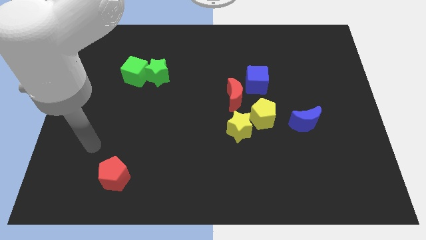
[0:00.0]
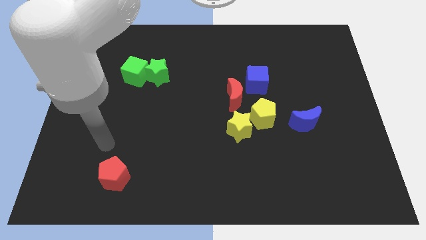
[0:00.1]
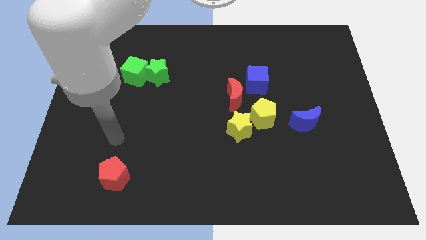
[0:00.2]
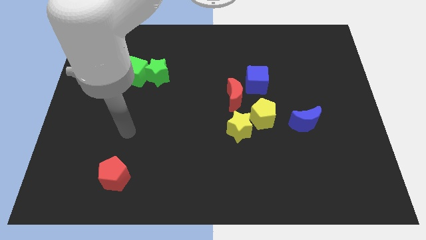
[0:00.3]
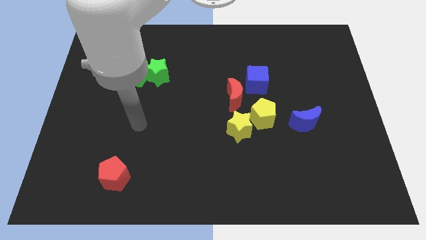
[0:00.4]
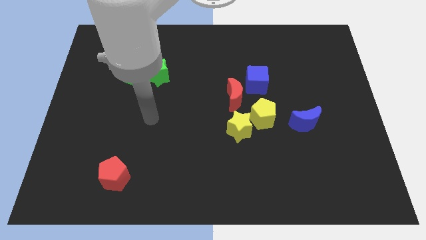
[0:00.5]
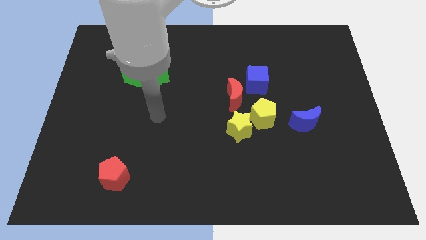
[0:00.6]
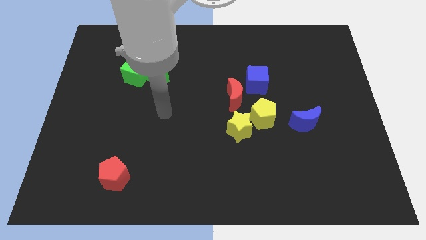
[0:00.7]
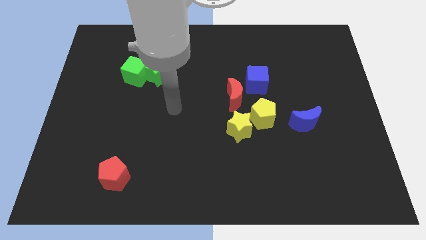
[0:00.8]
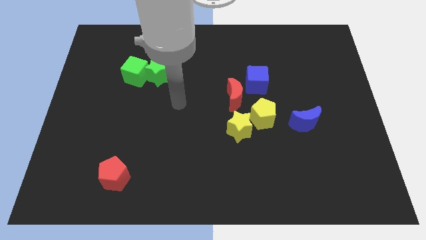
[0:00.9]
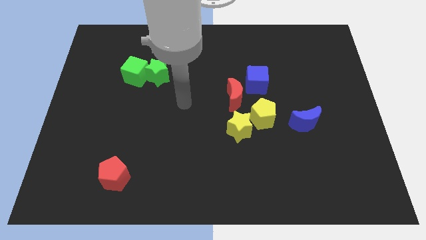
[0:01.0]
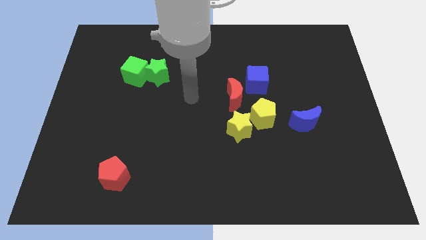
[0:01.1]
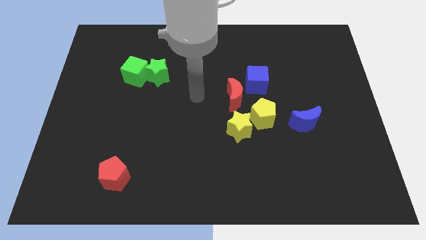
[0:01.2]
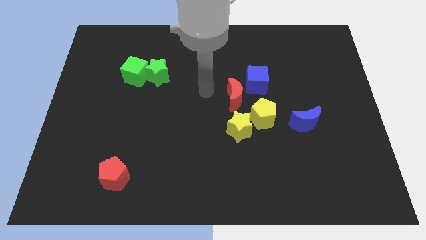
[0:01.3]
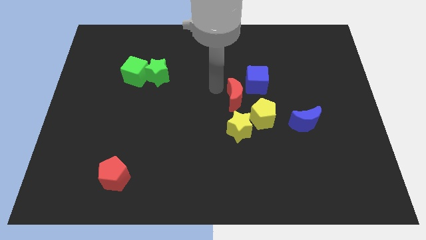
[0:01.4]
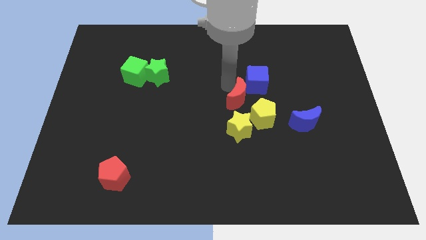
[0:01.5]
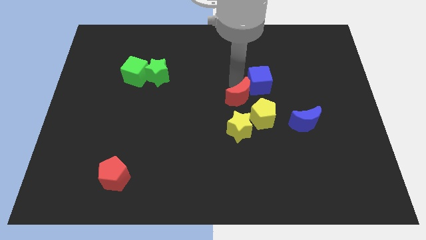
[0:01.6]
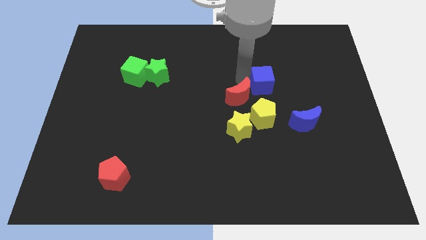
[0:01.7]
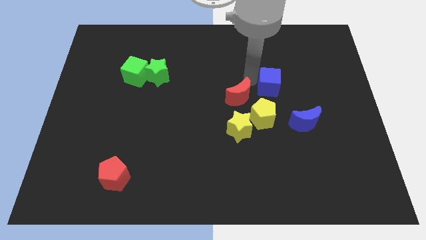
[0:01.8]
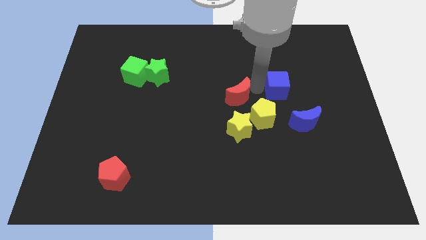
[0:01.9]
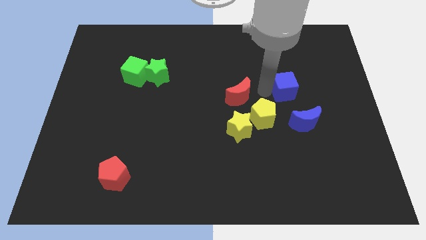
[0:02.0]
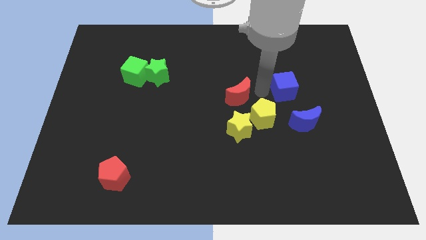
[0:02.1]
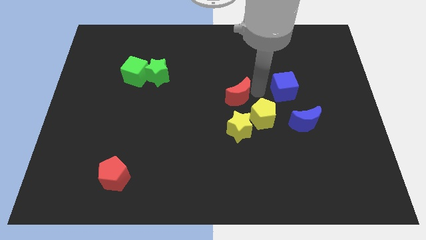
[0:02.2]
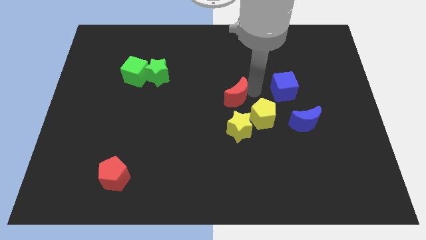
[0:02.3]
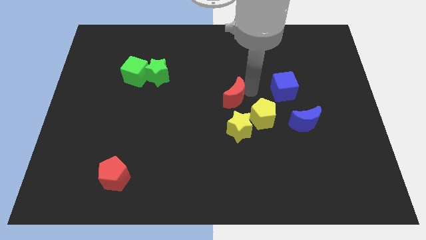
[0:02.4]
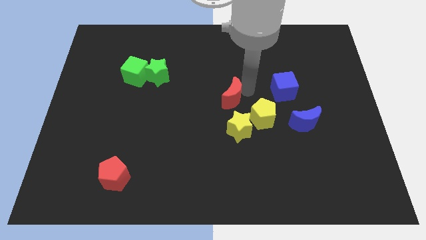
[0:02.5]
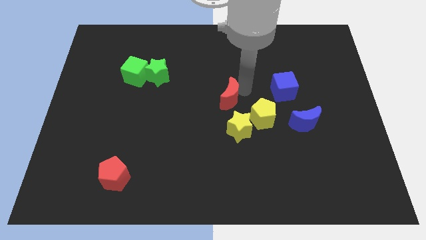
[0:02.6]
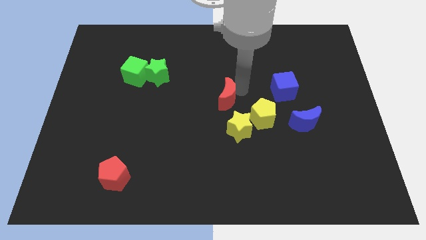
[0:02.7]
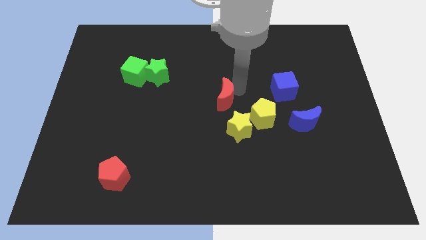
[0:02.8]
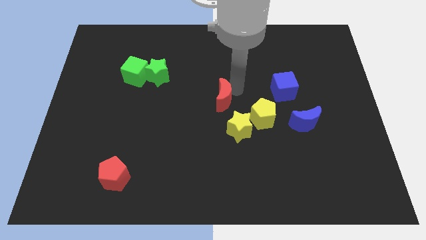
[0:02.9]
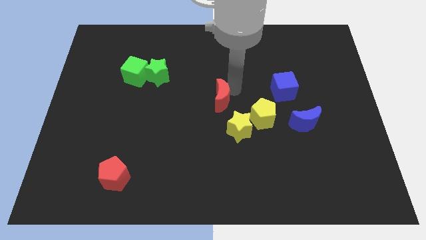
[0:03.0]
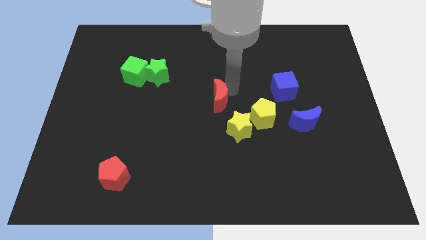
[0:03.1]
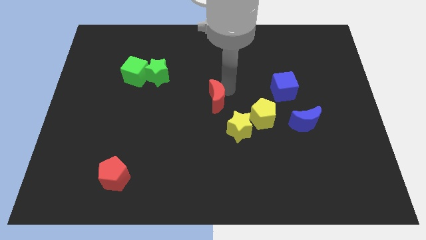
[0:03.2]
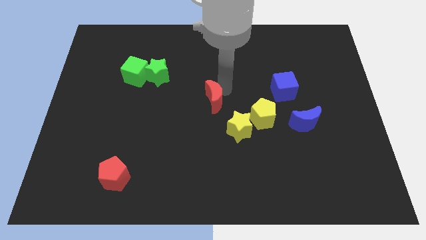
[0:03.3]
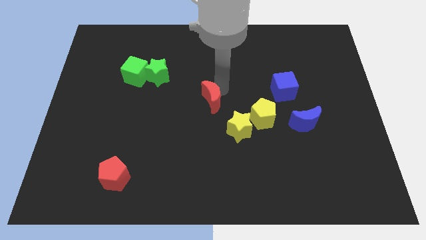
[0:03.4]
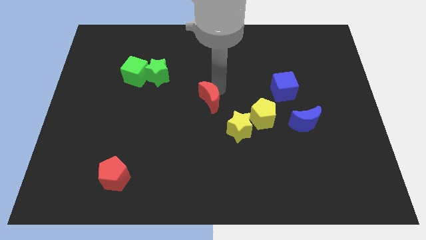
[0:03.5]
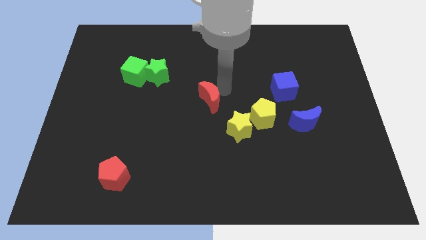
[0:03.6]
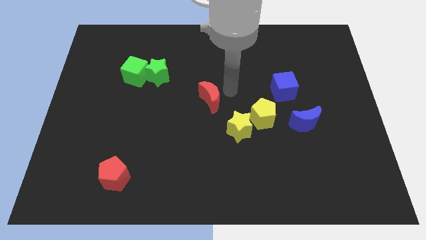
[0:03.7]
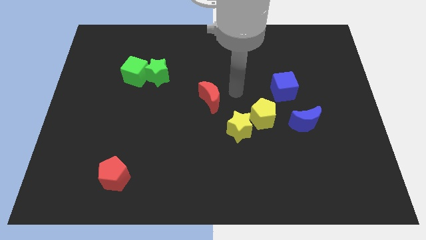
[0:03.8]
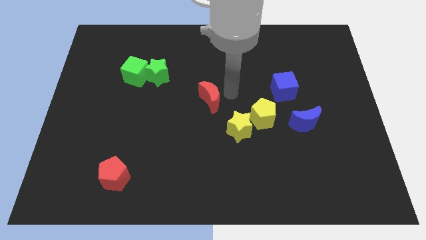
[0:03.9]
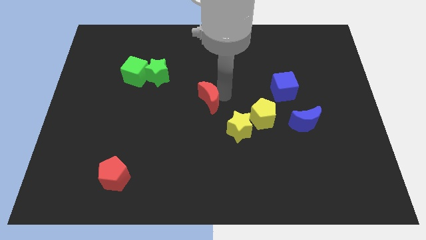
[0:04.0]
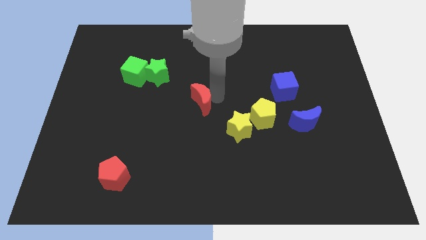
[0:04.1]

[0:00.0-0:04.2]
slightly move the red moon to the left

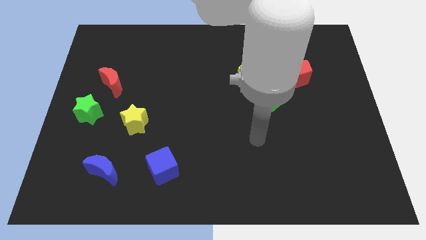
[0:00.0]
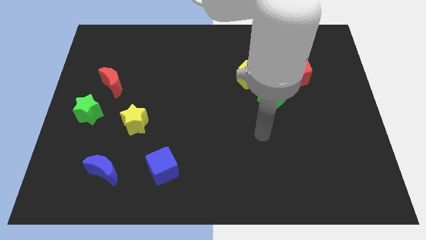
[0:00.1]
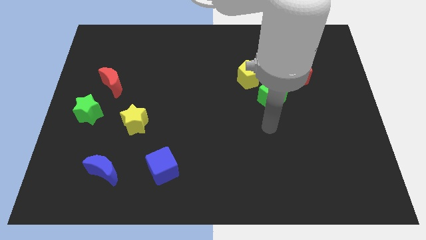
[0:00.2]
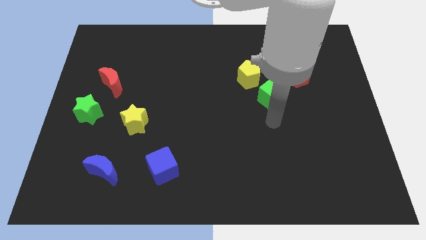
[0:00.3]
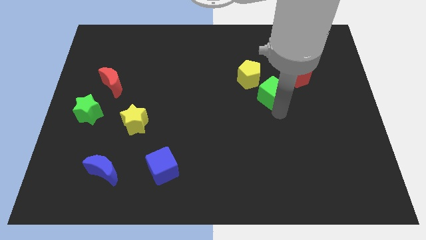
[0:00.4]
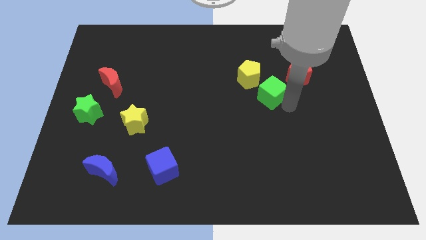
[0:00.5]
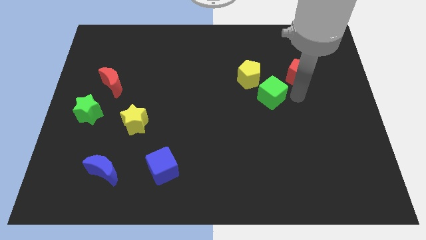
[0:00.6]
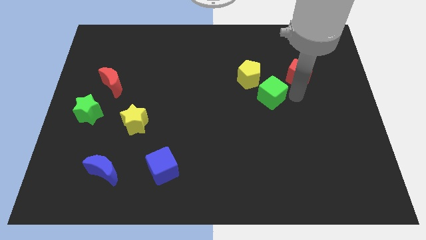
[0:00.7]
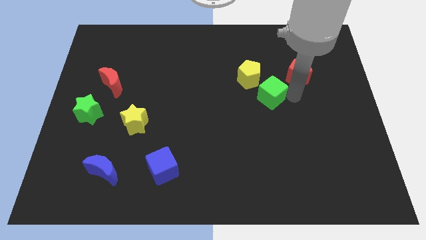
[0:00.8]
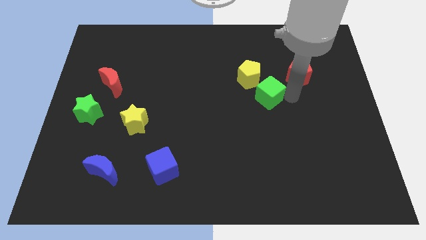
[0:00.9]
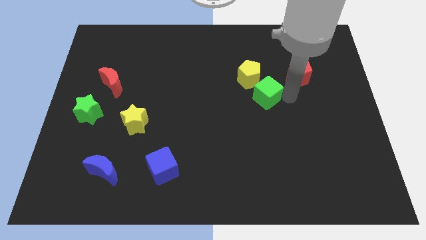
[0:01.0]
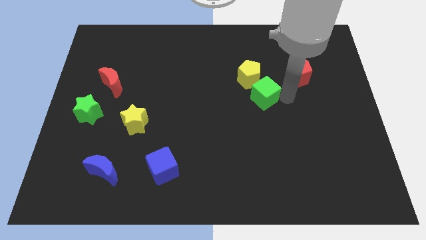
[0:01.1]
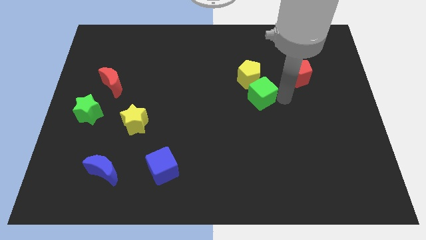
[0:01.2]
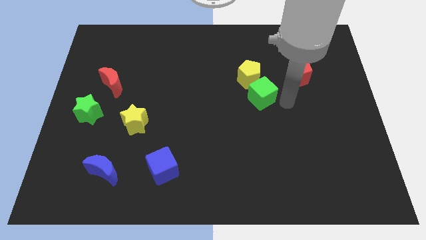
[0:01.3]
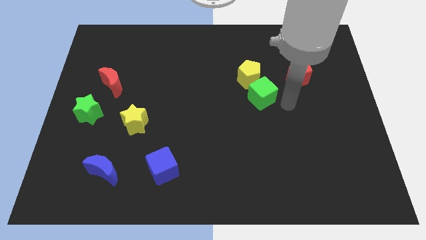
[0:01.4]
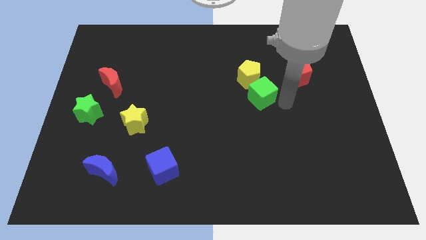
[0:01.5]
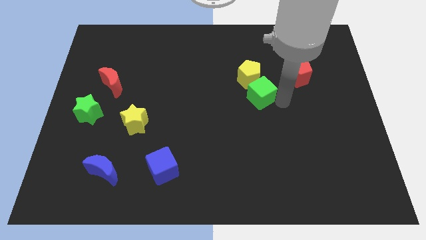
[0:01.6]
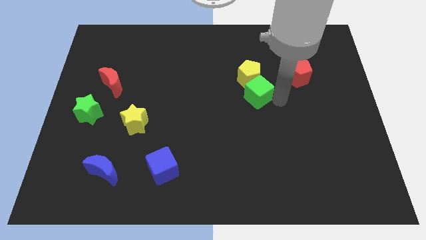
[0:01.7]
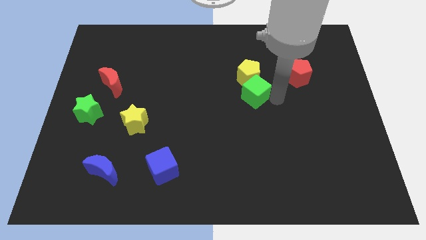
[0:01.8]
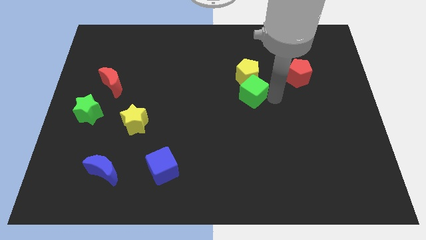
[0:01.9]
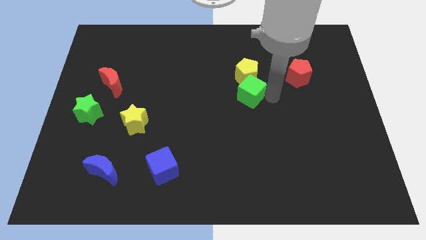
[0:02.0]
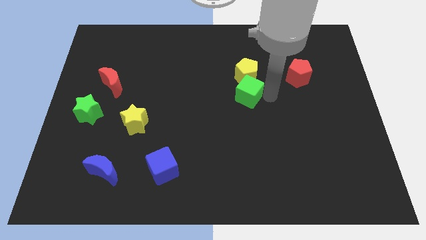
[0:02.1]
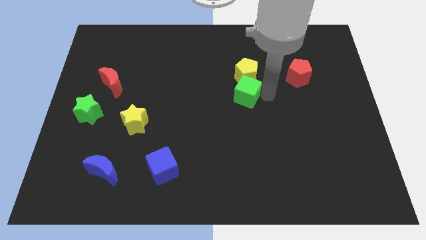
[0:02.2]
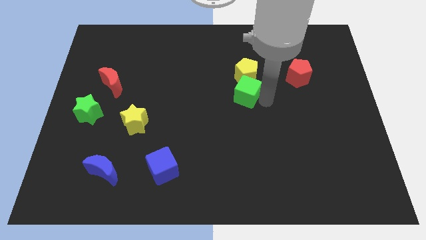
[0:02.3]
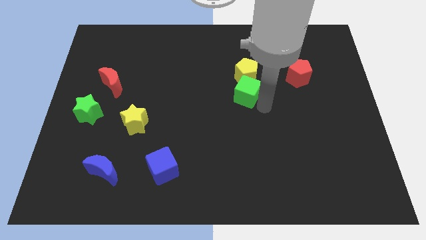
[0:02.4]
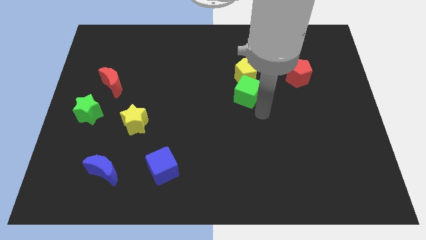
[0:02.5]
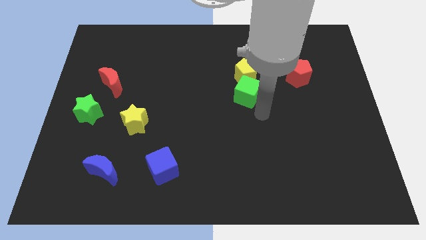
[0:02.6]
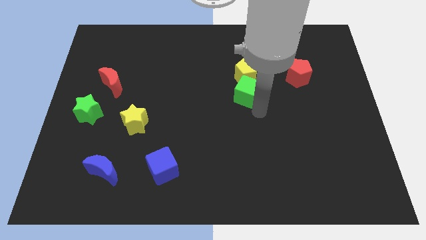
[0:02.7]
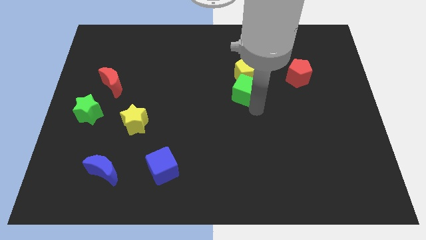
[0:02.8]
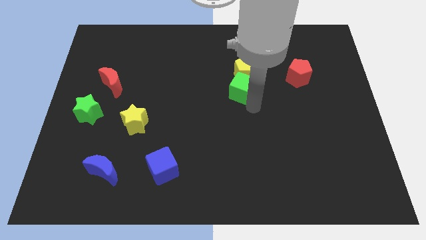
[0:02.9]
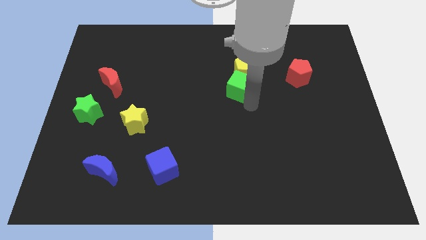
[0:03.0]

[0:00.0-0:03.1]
move the green cube a little bit upwards and to the left

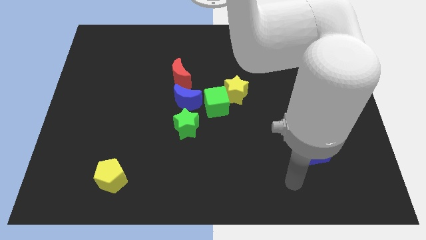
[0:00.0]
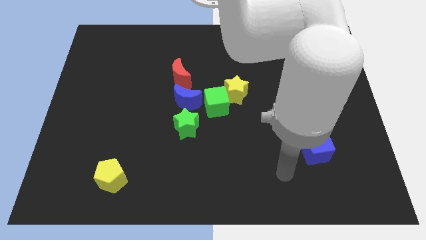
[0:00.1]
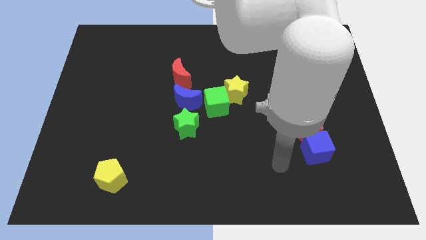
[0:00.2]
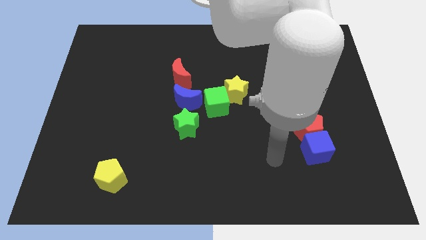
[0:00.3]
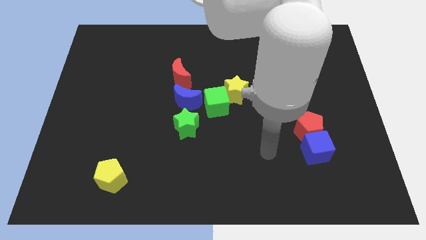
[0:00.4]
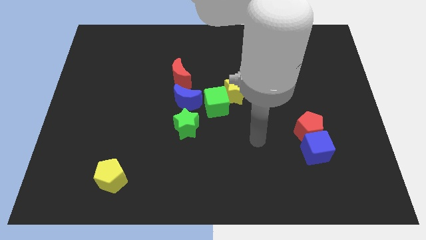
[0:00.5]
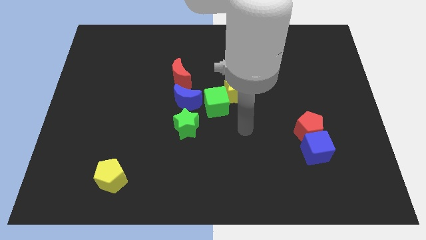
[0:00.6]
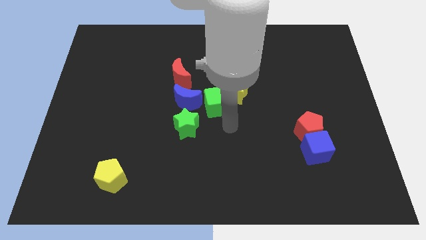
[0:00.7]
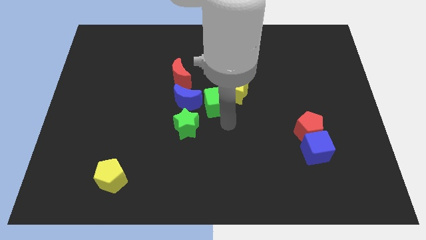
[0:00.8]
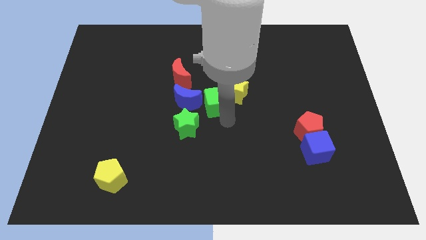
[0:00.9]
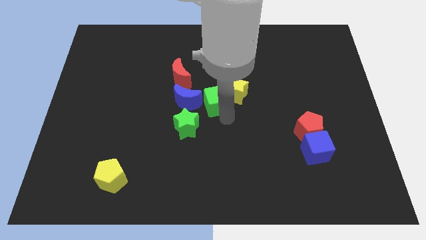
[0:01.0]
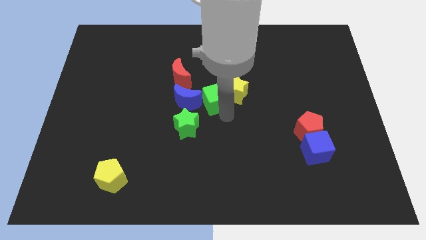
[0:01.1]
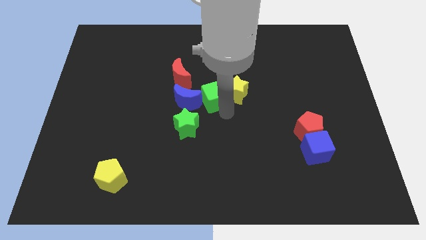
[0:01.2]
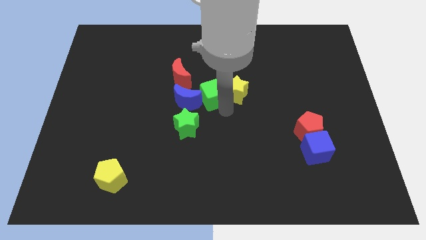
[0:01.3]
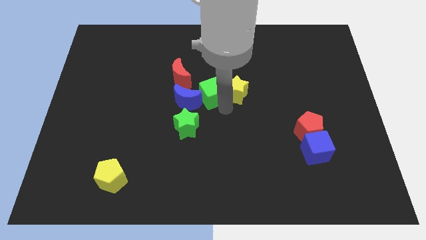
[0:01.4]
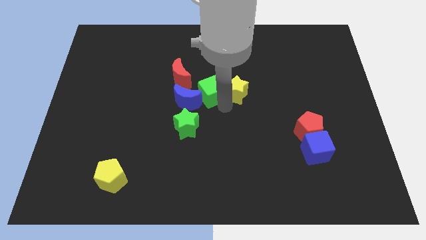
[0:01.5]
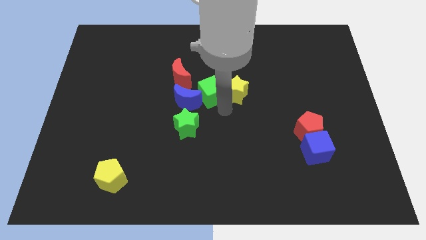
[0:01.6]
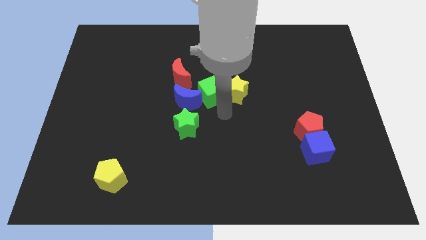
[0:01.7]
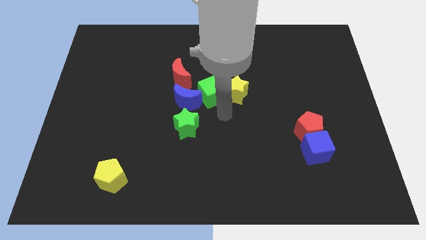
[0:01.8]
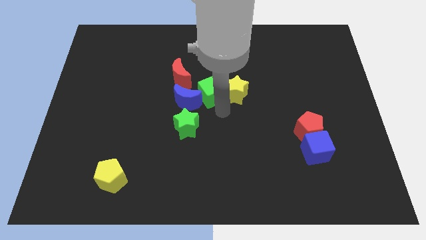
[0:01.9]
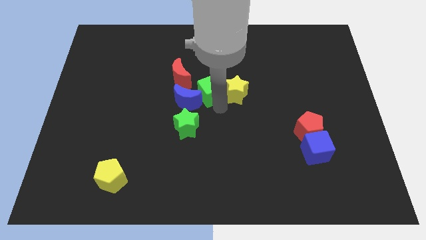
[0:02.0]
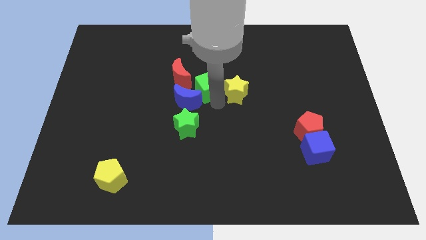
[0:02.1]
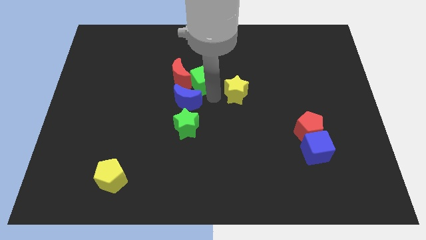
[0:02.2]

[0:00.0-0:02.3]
push the green cube up and left diagonally a bit
